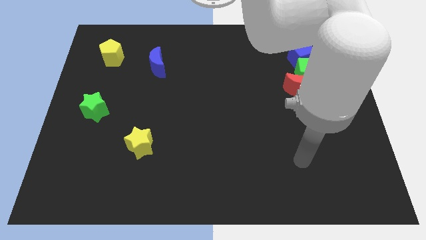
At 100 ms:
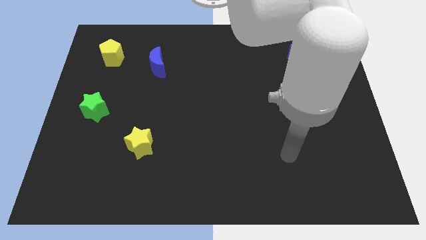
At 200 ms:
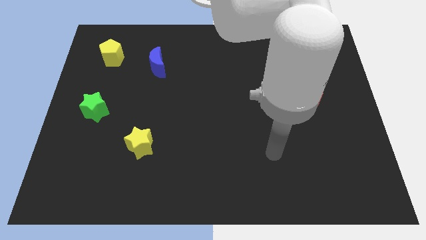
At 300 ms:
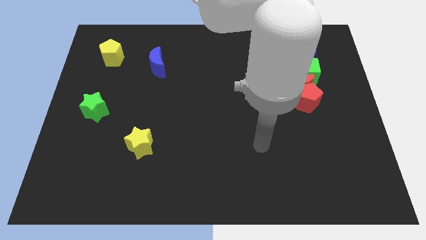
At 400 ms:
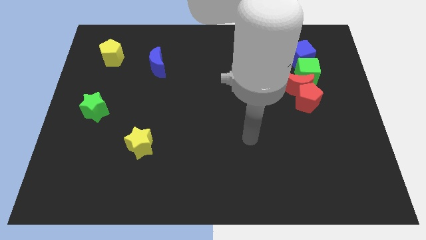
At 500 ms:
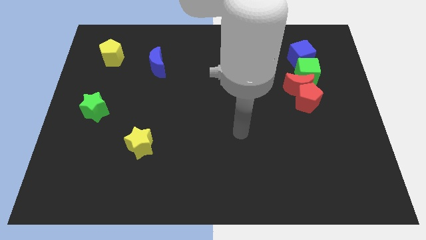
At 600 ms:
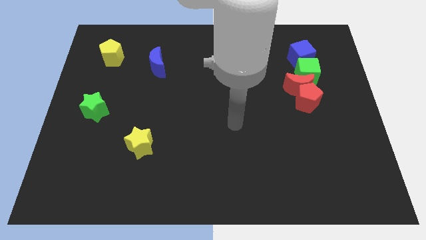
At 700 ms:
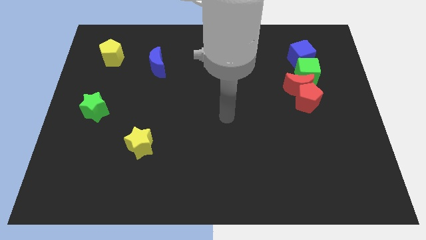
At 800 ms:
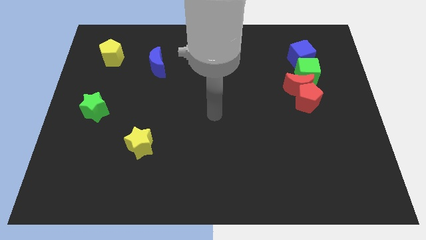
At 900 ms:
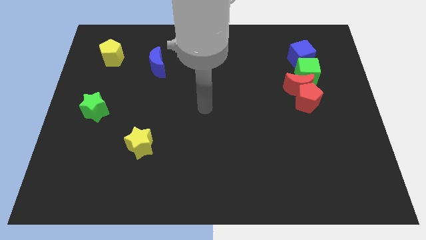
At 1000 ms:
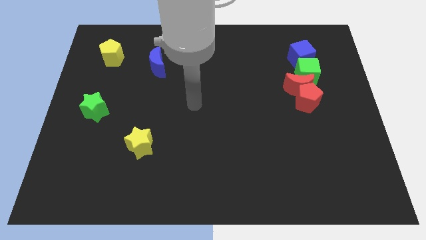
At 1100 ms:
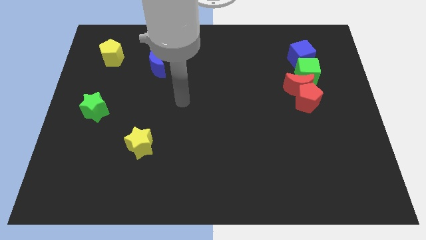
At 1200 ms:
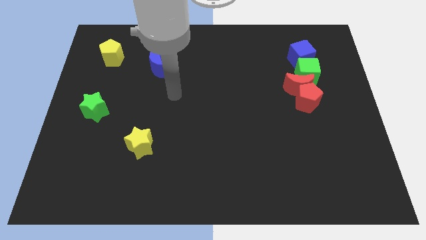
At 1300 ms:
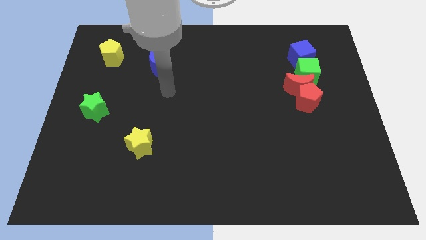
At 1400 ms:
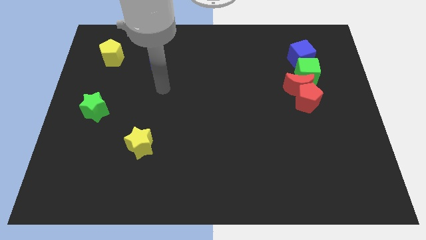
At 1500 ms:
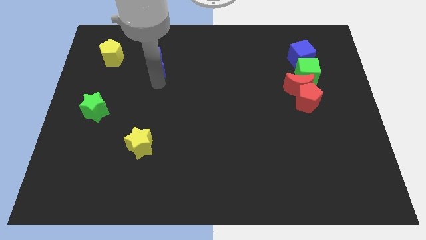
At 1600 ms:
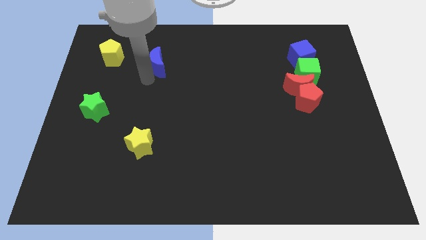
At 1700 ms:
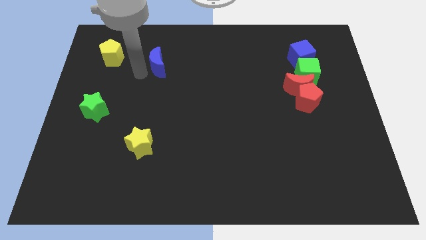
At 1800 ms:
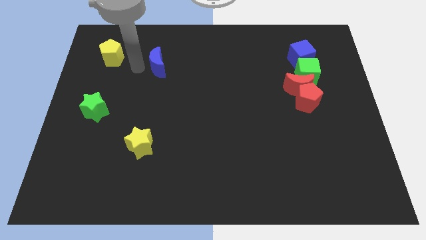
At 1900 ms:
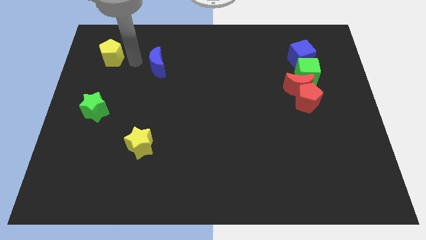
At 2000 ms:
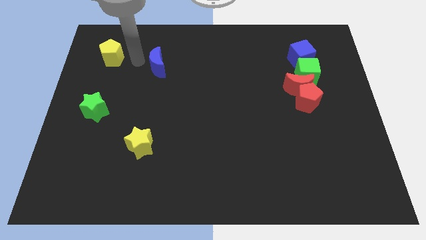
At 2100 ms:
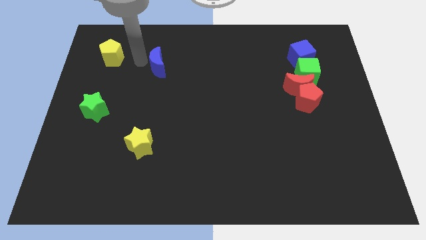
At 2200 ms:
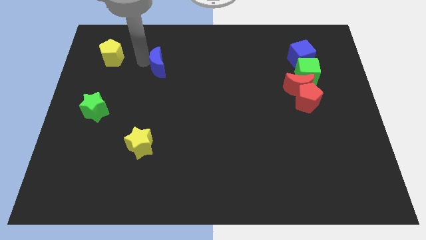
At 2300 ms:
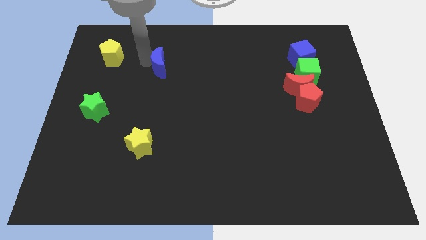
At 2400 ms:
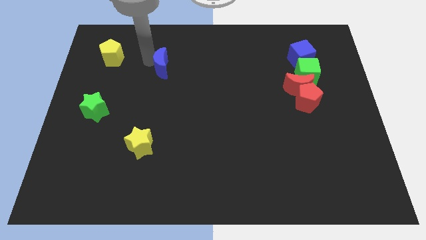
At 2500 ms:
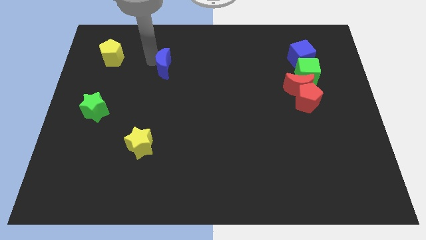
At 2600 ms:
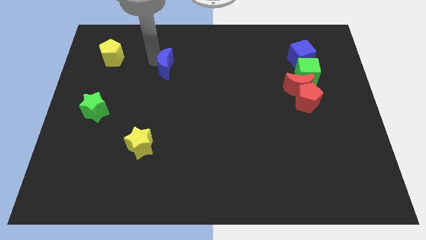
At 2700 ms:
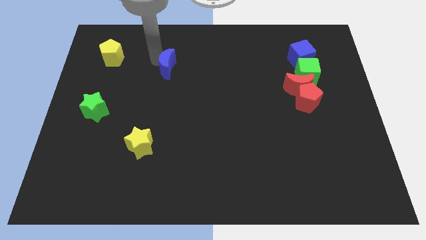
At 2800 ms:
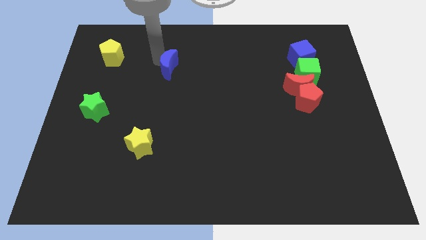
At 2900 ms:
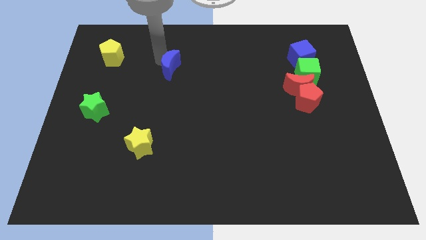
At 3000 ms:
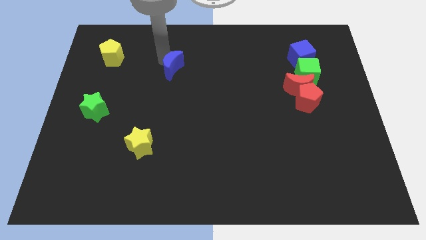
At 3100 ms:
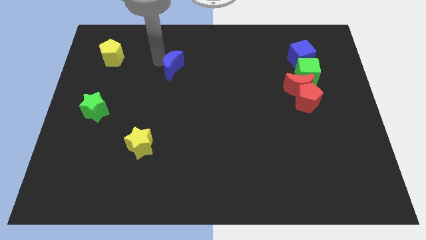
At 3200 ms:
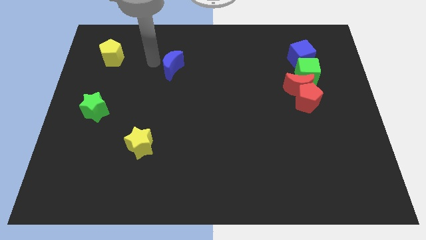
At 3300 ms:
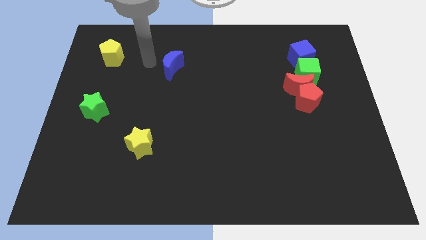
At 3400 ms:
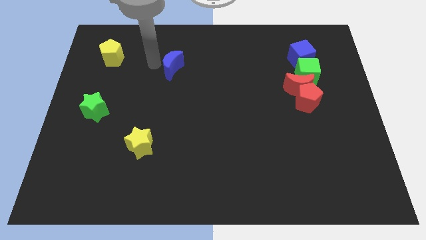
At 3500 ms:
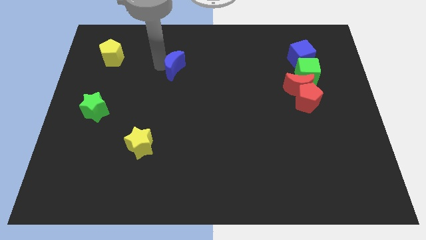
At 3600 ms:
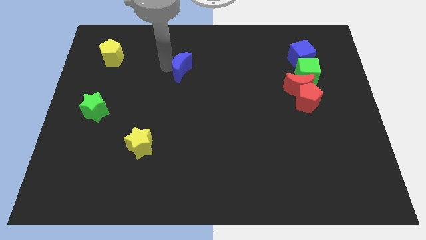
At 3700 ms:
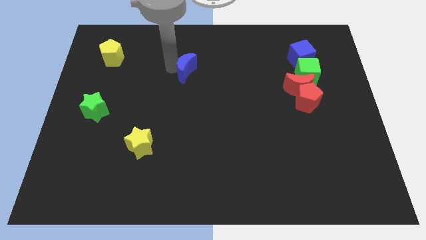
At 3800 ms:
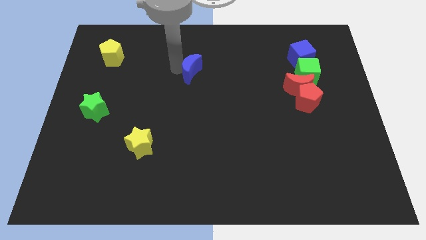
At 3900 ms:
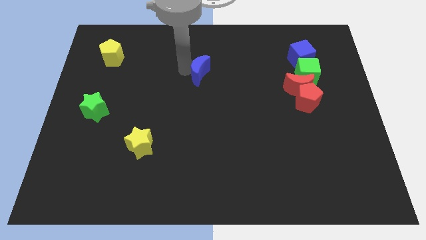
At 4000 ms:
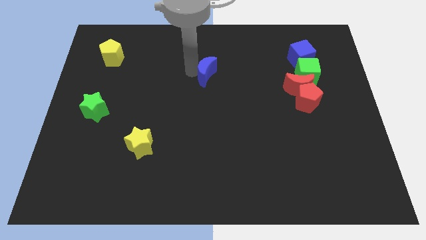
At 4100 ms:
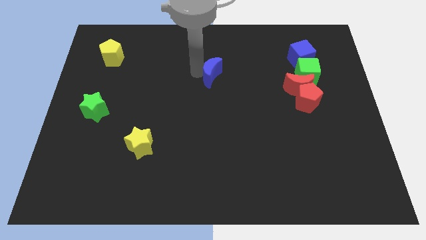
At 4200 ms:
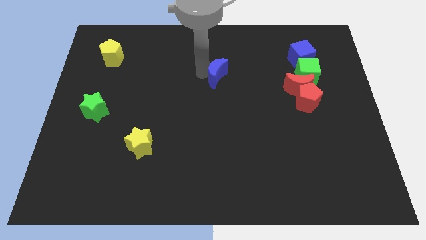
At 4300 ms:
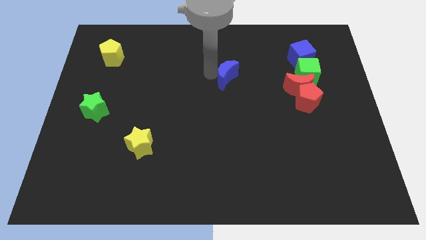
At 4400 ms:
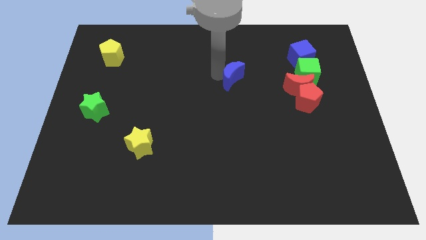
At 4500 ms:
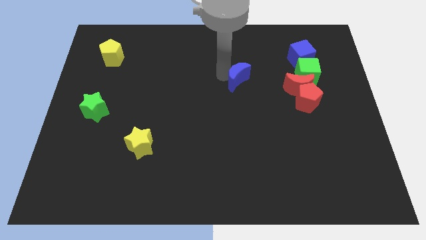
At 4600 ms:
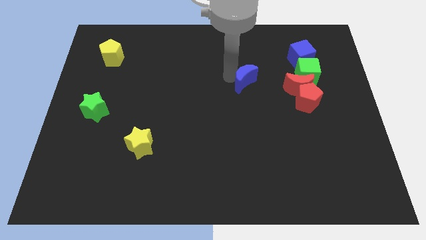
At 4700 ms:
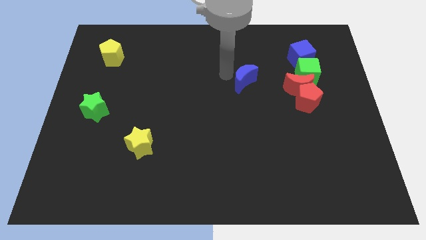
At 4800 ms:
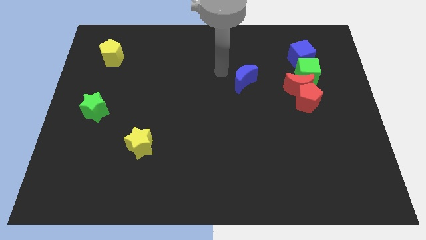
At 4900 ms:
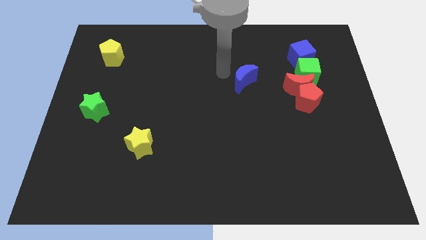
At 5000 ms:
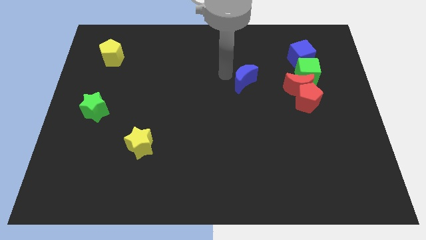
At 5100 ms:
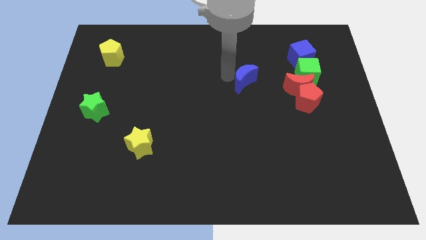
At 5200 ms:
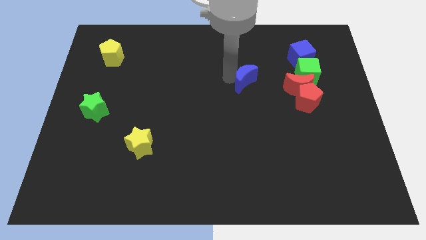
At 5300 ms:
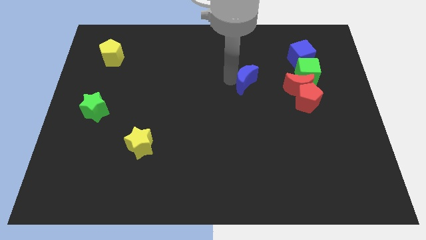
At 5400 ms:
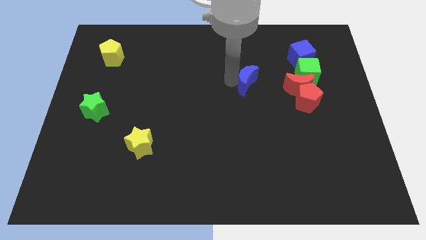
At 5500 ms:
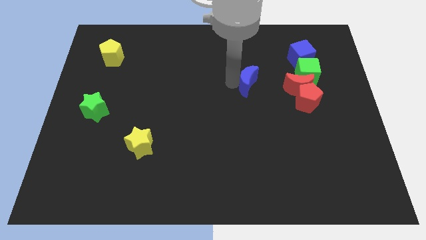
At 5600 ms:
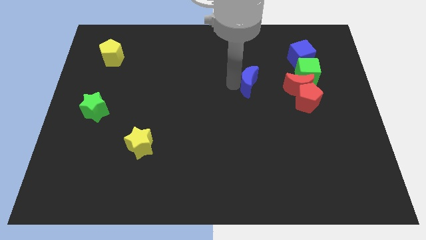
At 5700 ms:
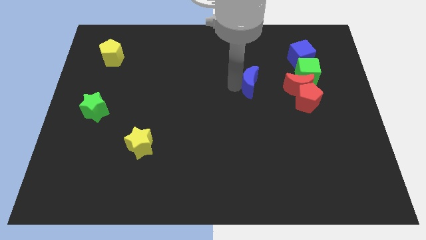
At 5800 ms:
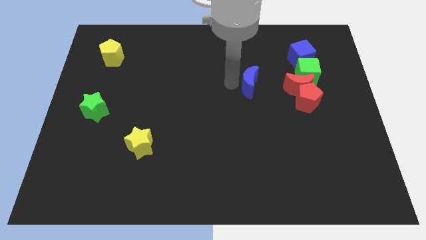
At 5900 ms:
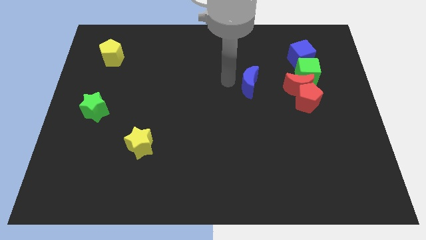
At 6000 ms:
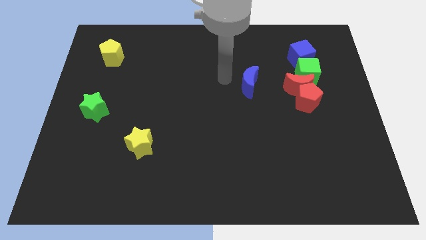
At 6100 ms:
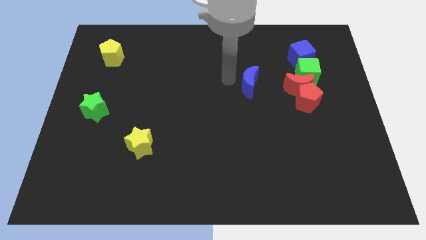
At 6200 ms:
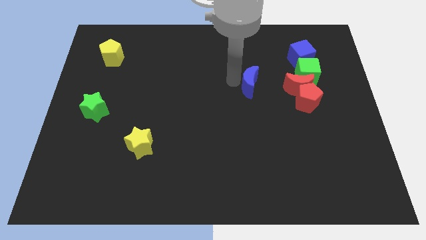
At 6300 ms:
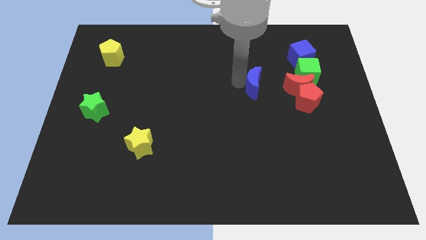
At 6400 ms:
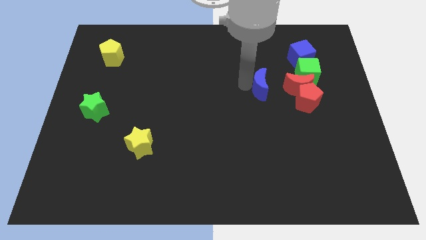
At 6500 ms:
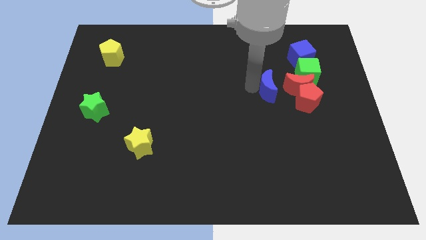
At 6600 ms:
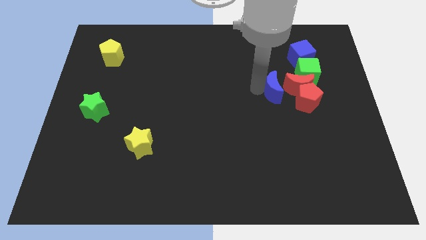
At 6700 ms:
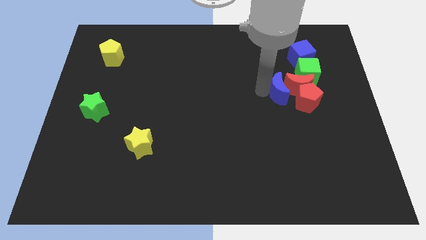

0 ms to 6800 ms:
push the blue moon to the red moon

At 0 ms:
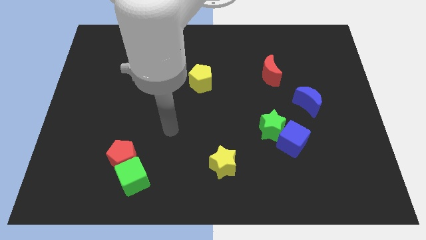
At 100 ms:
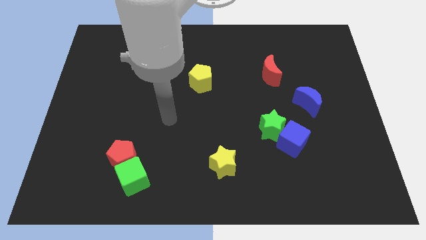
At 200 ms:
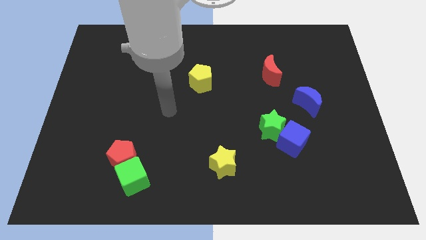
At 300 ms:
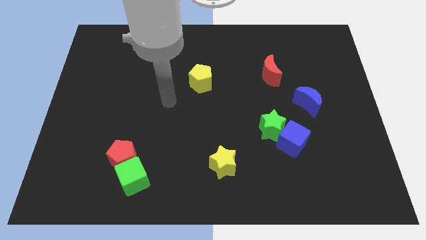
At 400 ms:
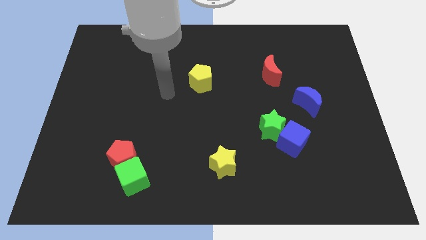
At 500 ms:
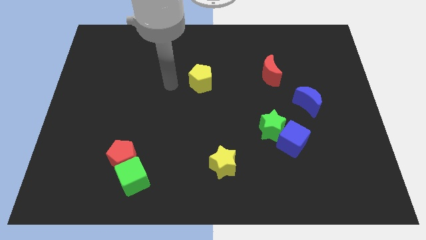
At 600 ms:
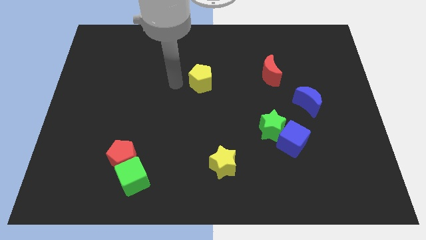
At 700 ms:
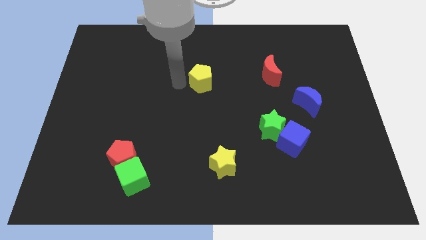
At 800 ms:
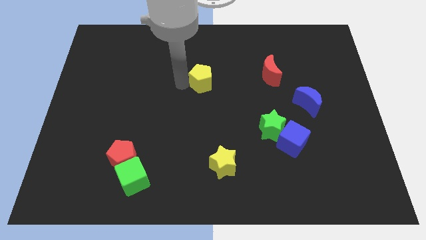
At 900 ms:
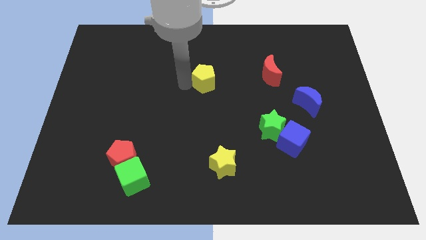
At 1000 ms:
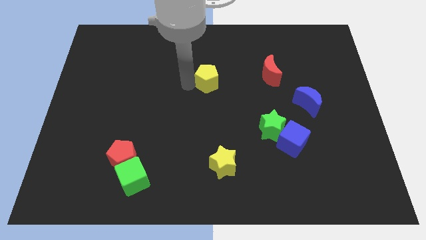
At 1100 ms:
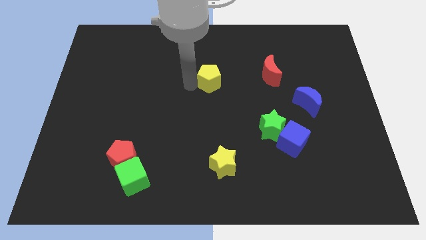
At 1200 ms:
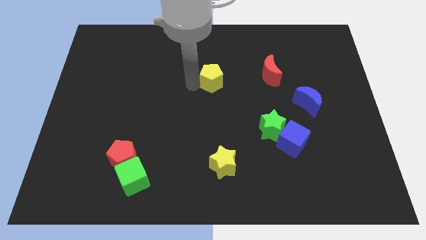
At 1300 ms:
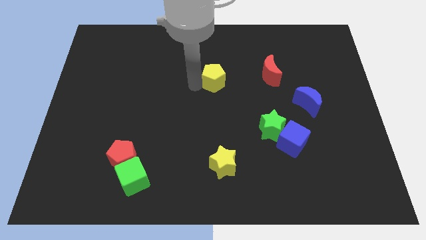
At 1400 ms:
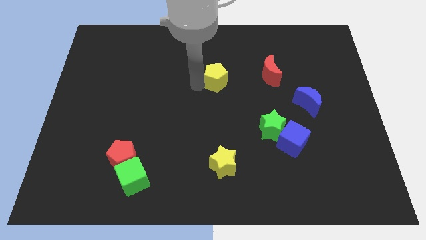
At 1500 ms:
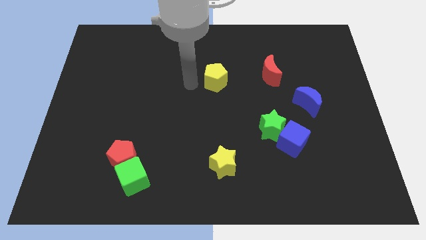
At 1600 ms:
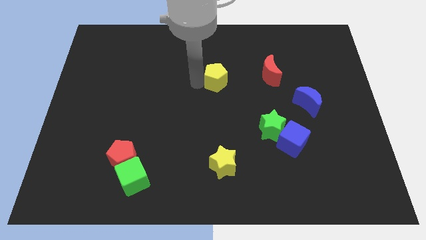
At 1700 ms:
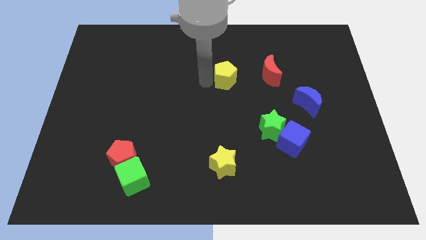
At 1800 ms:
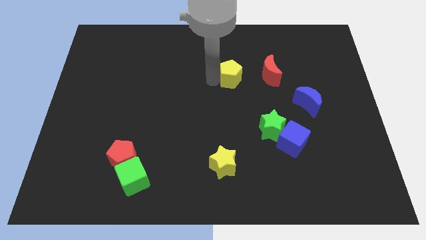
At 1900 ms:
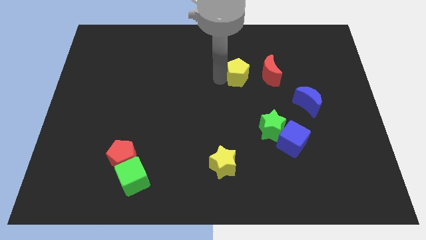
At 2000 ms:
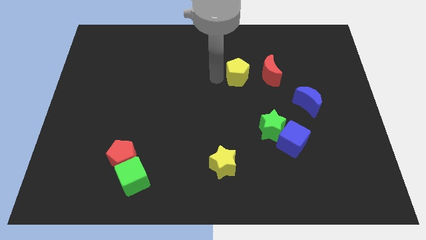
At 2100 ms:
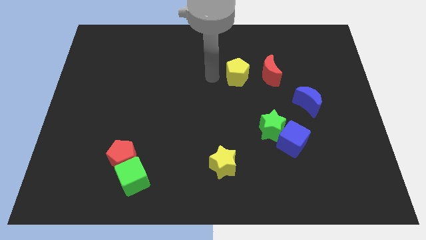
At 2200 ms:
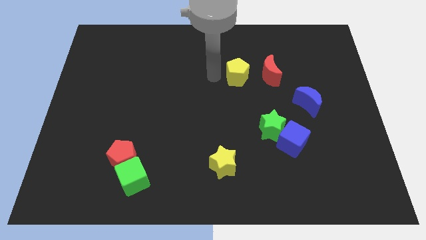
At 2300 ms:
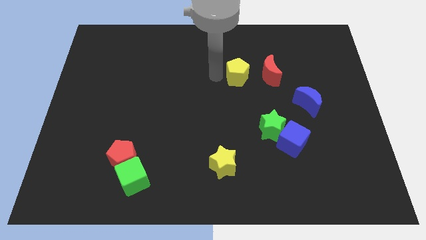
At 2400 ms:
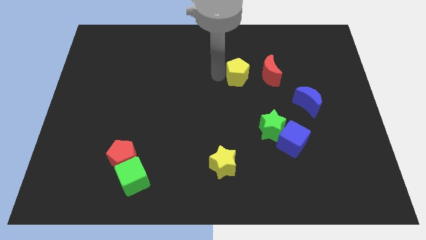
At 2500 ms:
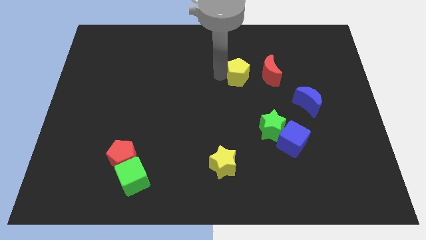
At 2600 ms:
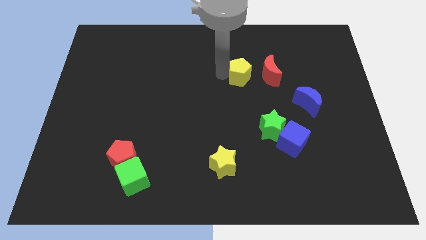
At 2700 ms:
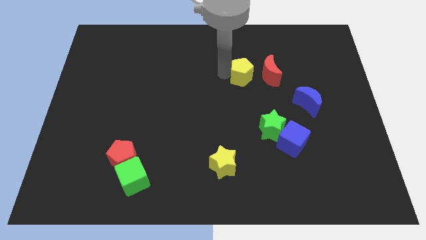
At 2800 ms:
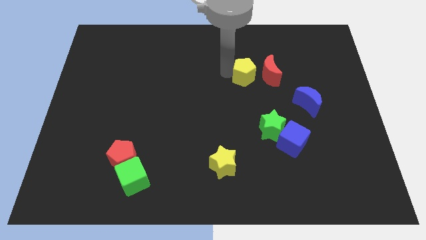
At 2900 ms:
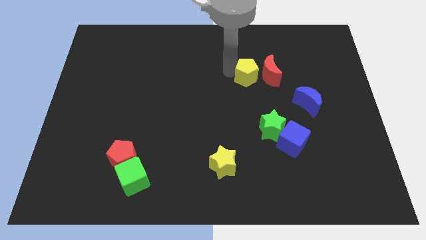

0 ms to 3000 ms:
move the yellow pentagon towards the red moon
